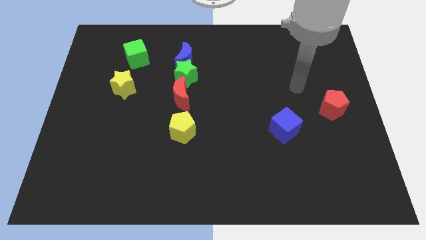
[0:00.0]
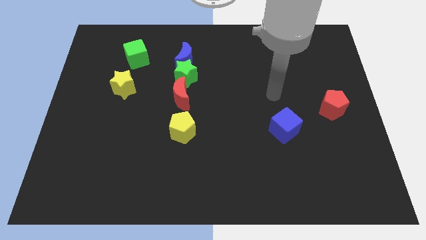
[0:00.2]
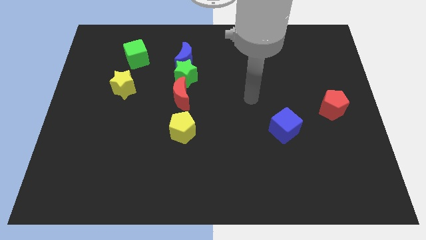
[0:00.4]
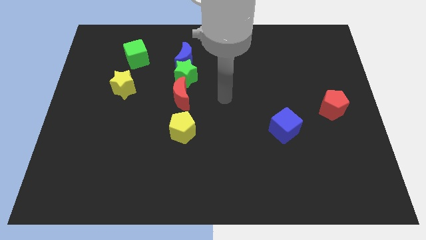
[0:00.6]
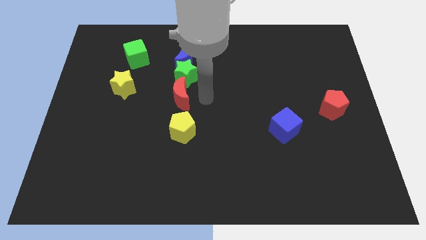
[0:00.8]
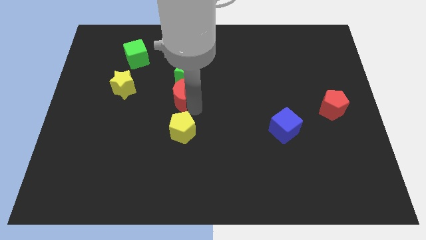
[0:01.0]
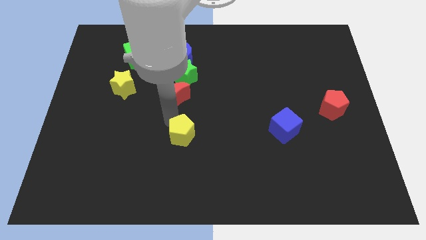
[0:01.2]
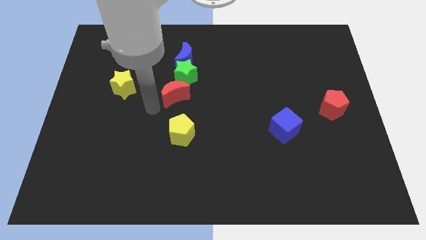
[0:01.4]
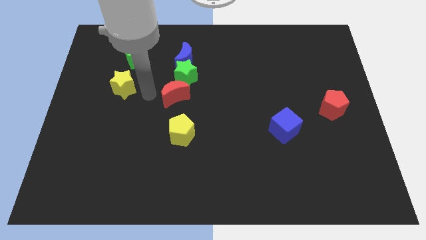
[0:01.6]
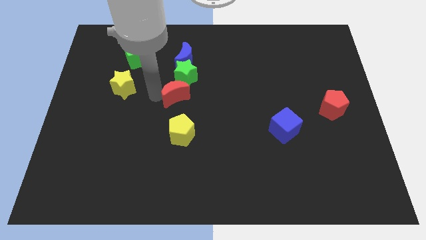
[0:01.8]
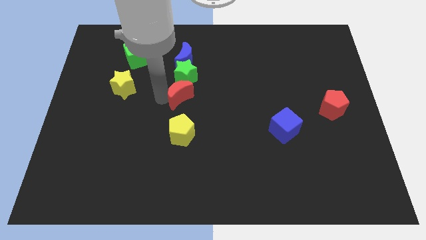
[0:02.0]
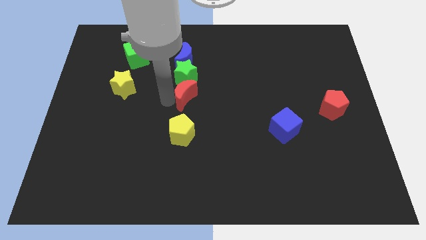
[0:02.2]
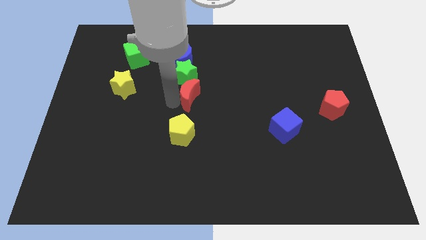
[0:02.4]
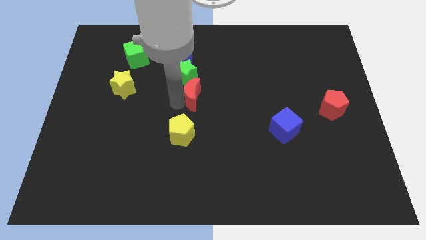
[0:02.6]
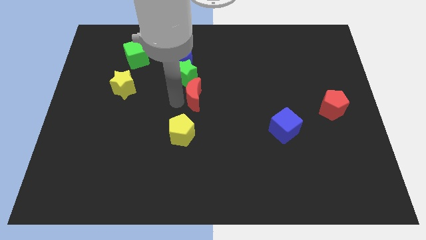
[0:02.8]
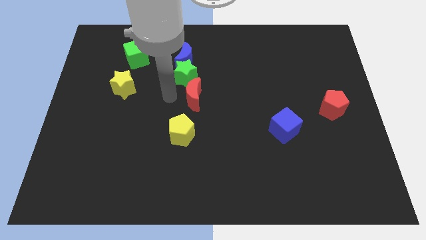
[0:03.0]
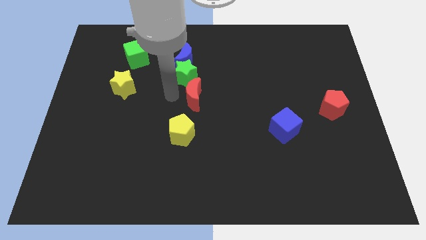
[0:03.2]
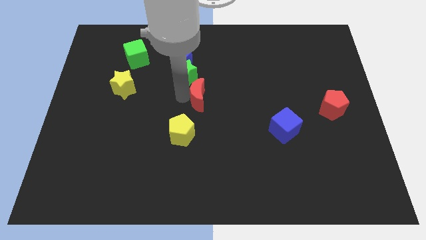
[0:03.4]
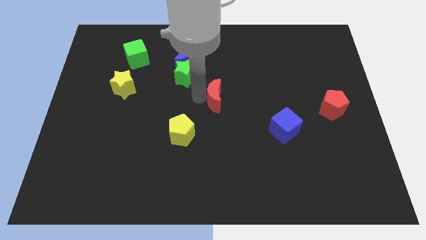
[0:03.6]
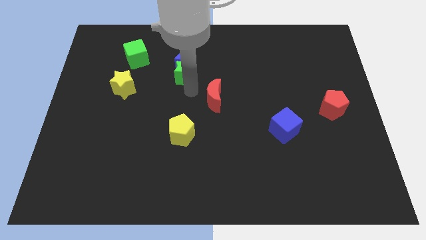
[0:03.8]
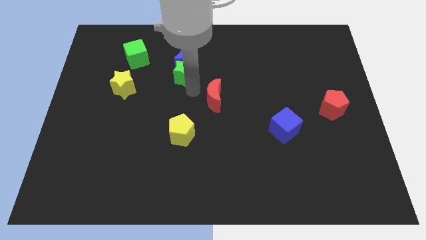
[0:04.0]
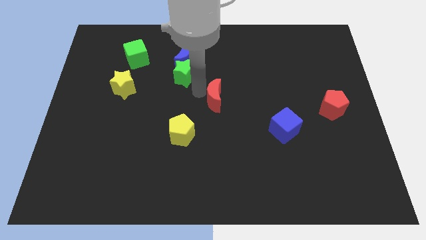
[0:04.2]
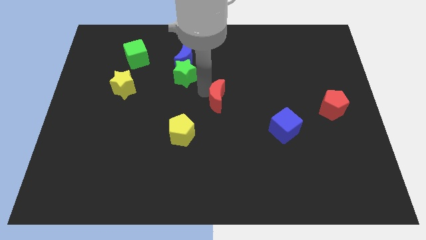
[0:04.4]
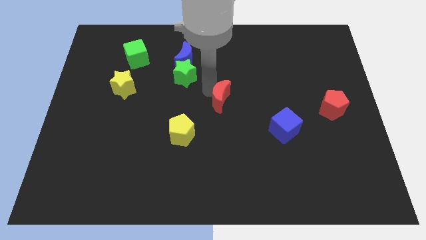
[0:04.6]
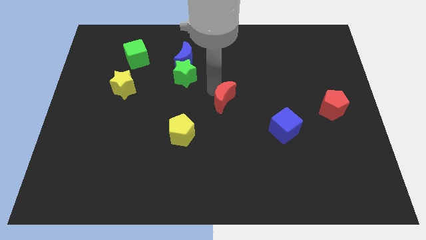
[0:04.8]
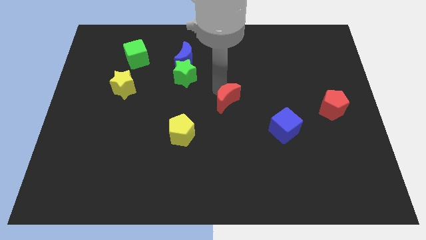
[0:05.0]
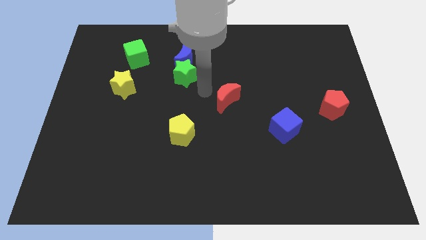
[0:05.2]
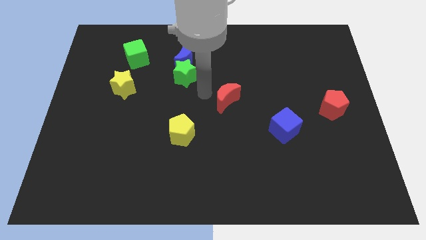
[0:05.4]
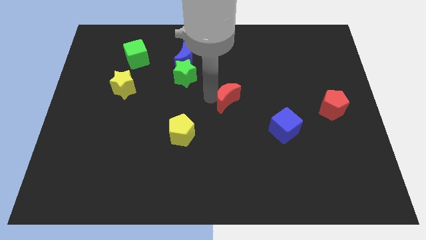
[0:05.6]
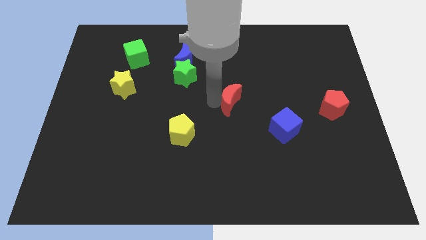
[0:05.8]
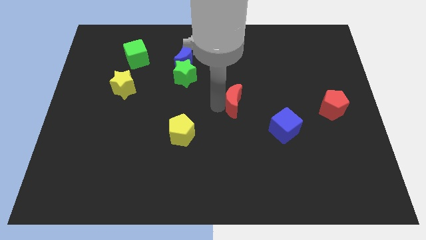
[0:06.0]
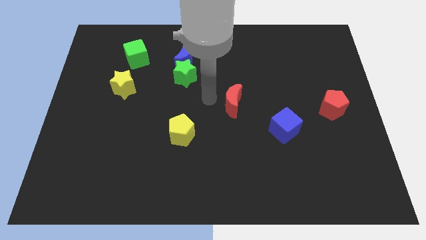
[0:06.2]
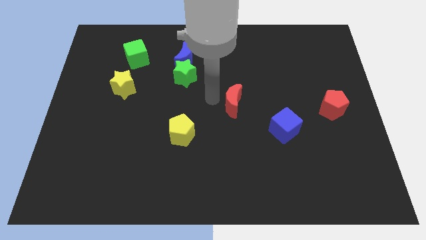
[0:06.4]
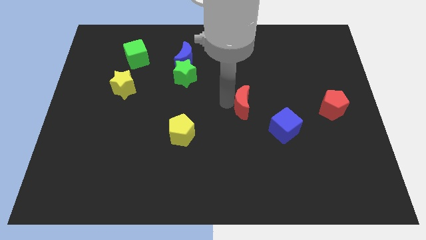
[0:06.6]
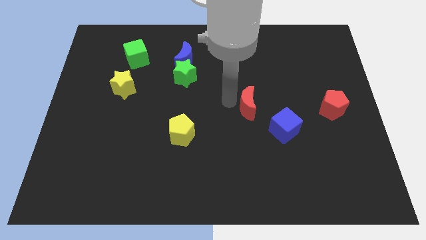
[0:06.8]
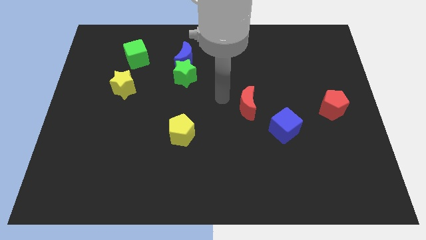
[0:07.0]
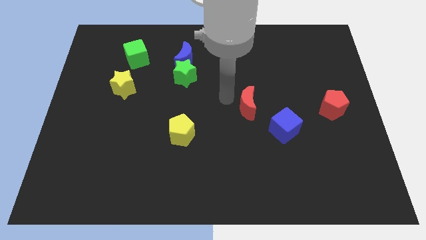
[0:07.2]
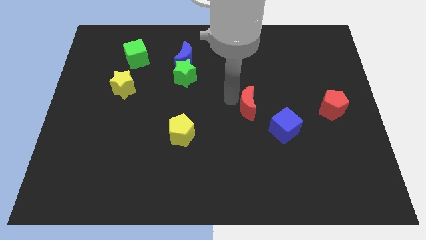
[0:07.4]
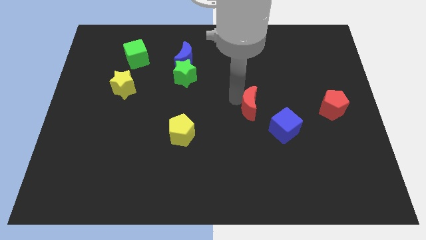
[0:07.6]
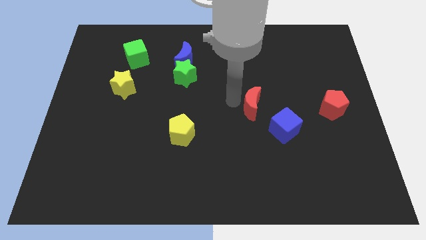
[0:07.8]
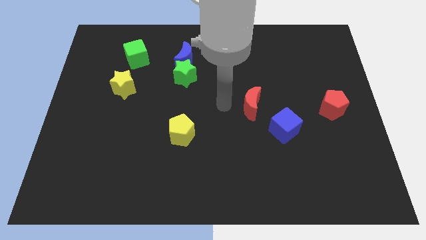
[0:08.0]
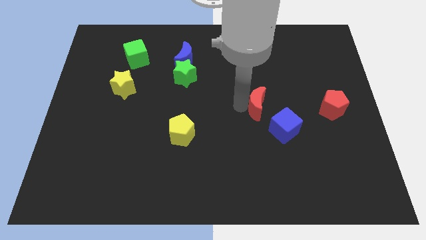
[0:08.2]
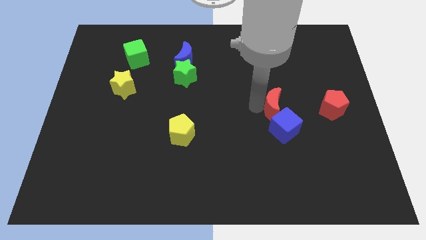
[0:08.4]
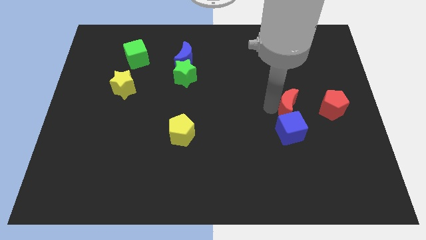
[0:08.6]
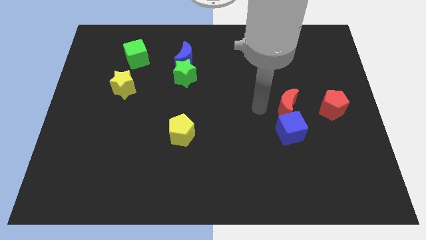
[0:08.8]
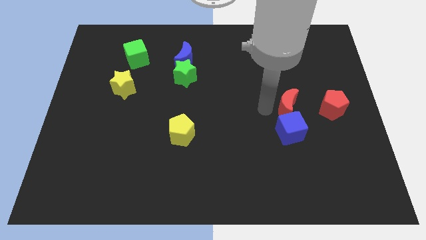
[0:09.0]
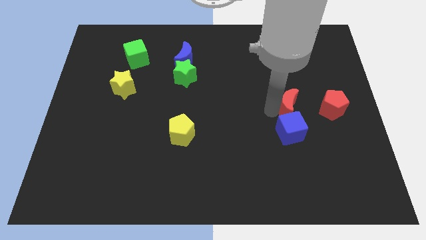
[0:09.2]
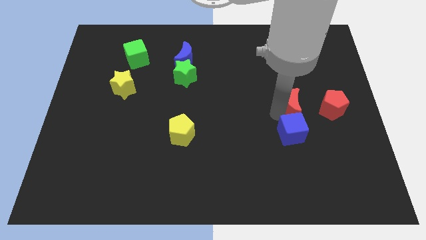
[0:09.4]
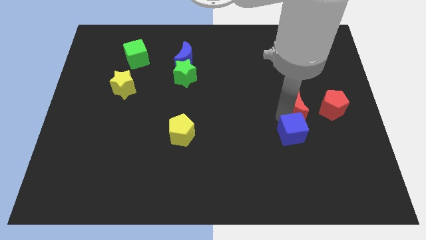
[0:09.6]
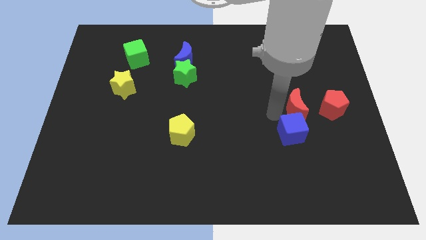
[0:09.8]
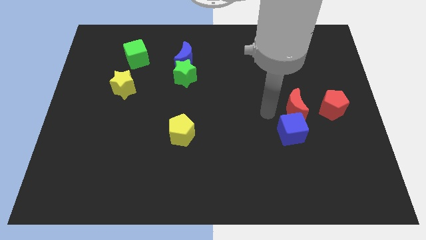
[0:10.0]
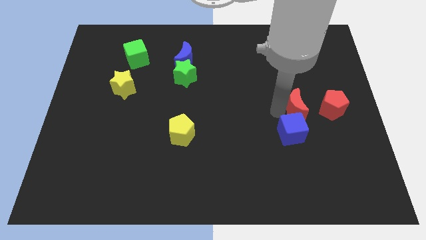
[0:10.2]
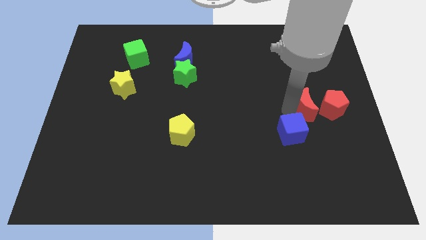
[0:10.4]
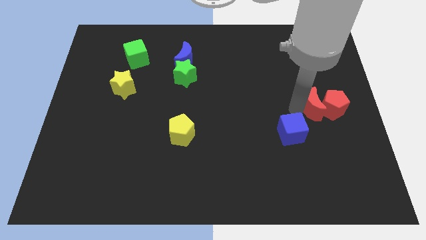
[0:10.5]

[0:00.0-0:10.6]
put the red moon towards the red pentagon

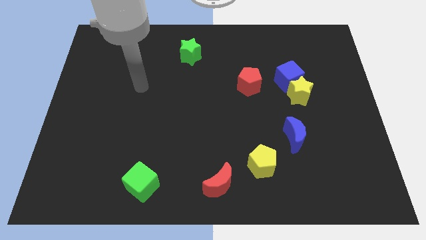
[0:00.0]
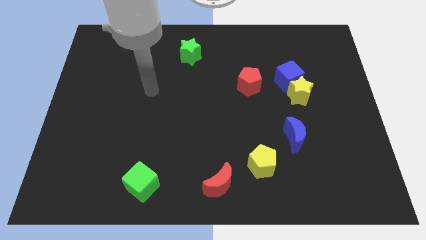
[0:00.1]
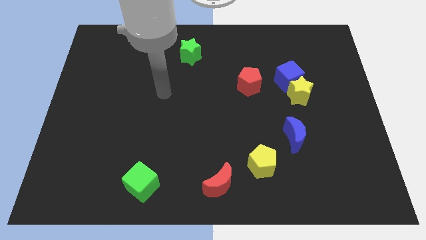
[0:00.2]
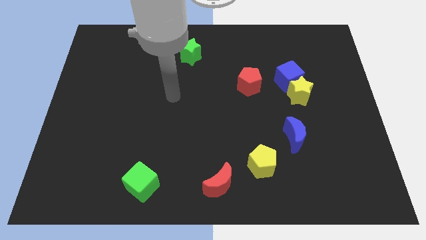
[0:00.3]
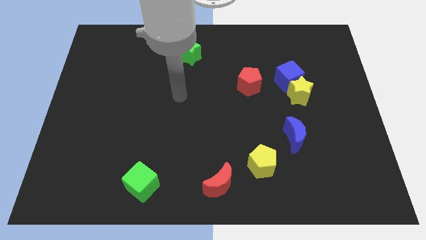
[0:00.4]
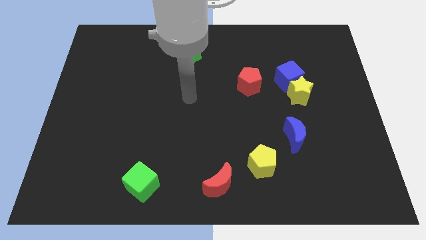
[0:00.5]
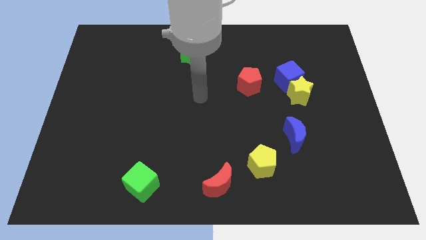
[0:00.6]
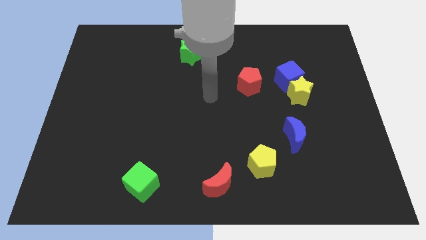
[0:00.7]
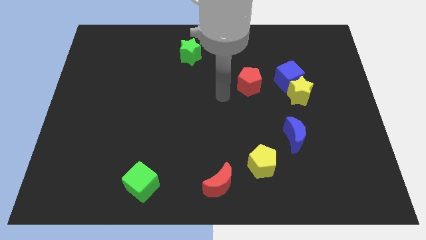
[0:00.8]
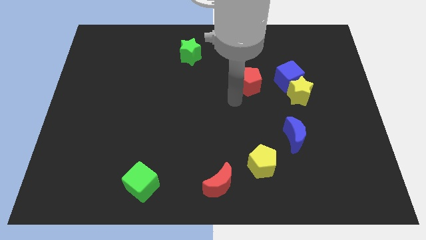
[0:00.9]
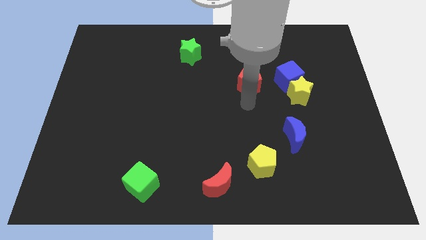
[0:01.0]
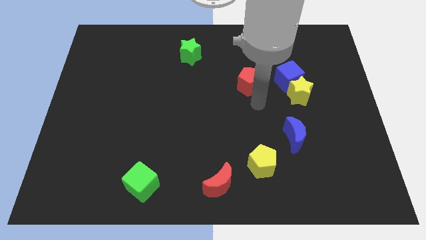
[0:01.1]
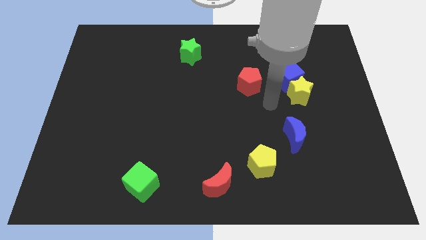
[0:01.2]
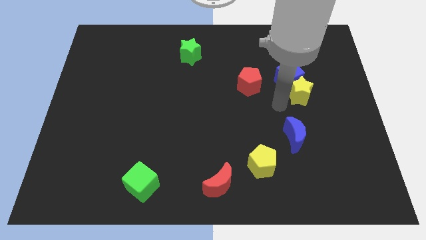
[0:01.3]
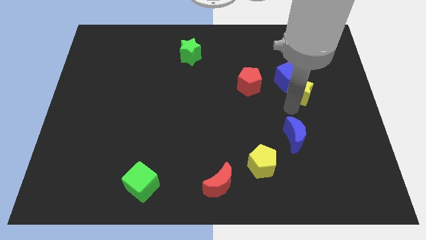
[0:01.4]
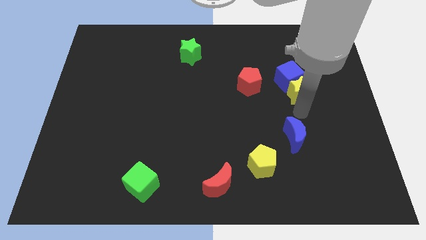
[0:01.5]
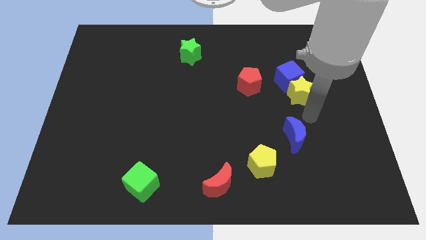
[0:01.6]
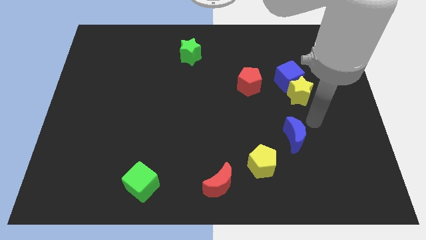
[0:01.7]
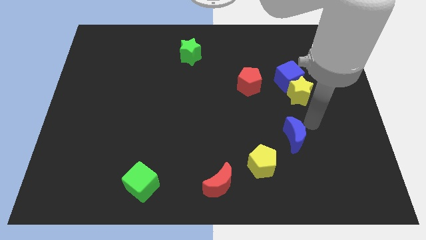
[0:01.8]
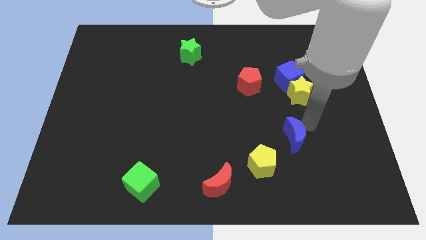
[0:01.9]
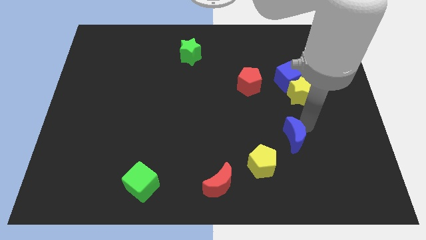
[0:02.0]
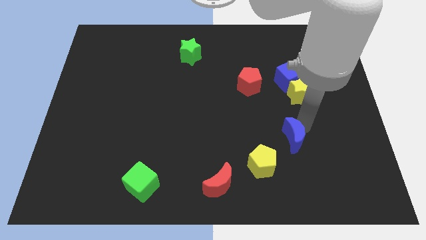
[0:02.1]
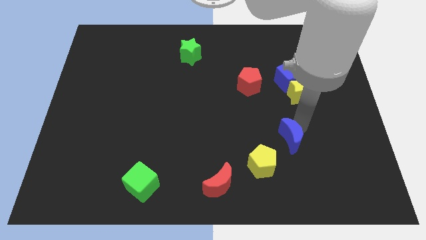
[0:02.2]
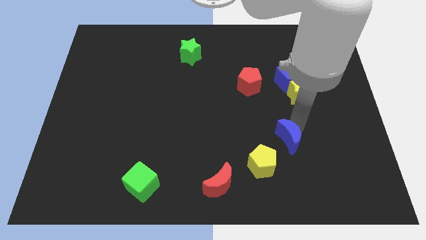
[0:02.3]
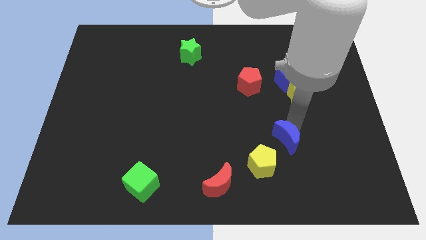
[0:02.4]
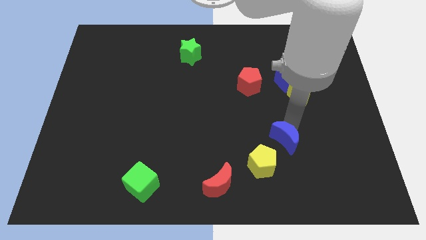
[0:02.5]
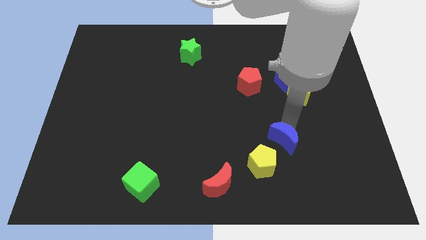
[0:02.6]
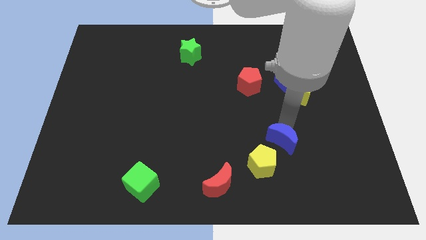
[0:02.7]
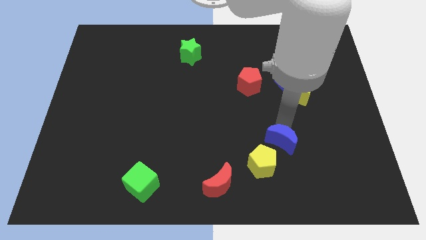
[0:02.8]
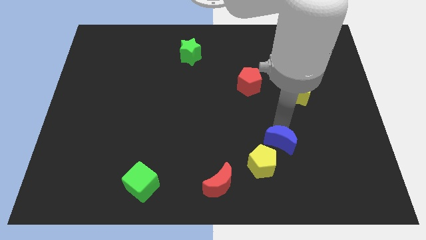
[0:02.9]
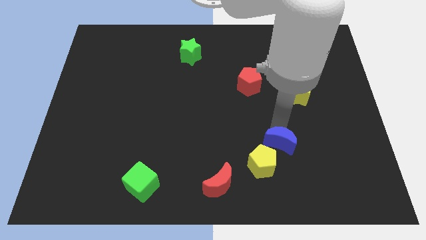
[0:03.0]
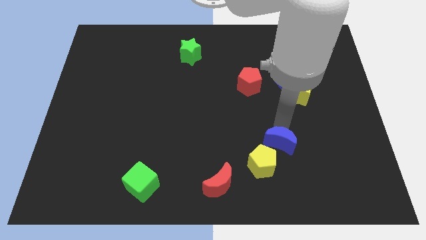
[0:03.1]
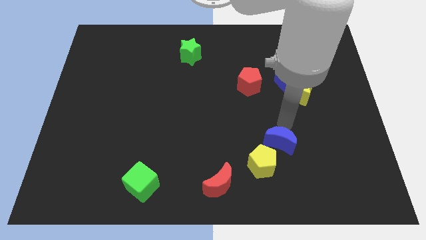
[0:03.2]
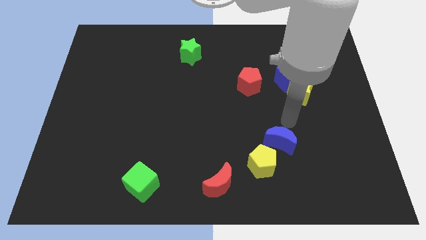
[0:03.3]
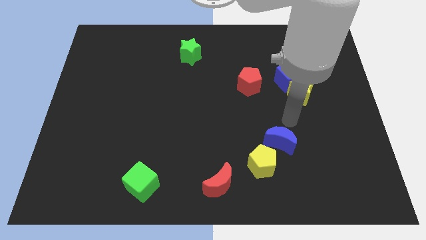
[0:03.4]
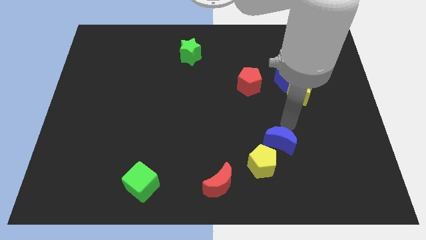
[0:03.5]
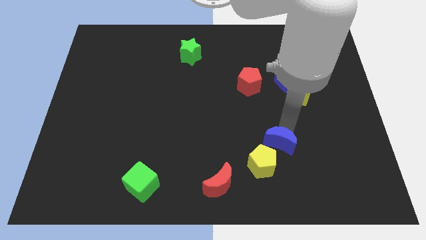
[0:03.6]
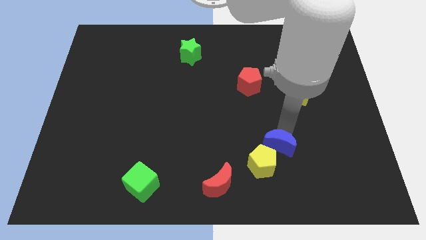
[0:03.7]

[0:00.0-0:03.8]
put the blue moon towards the yellow pentagon
